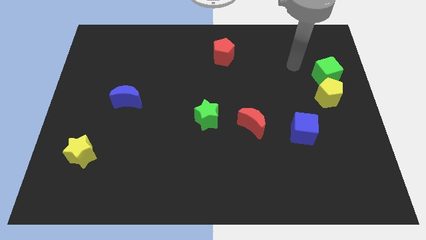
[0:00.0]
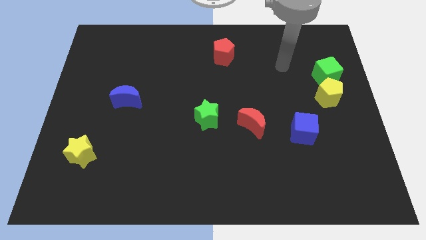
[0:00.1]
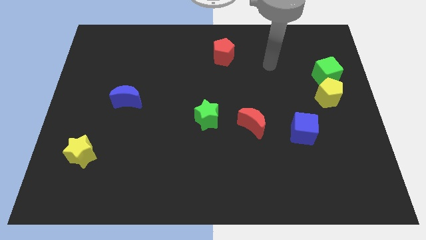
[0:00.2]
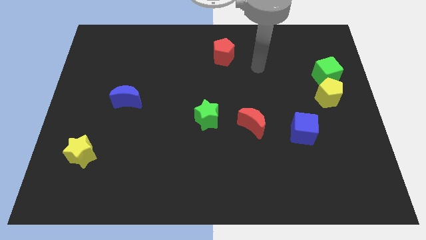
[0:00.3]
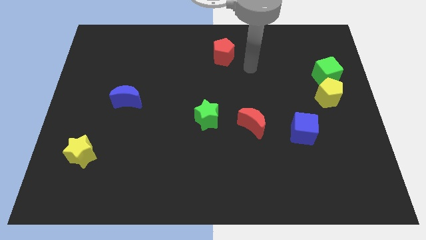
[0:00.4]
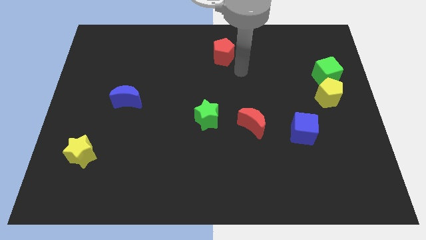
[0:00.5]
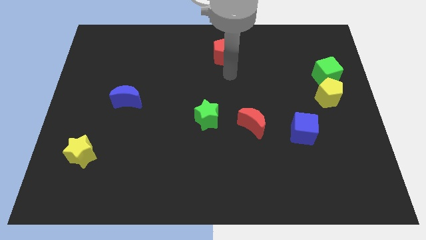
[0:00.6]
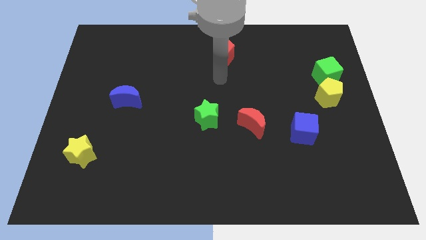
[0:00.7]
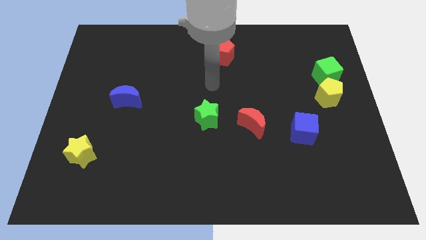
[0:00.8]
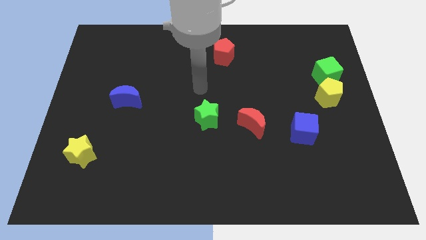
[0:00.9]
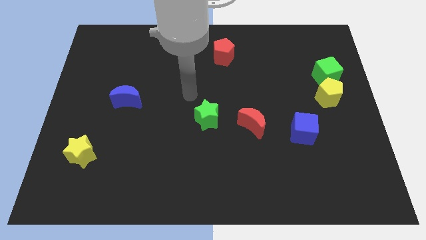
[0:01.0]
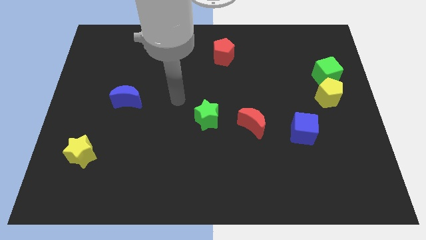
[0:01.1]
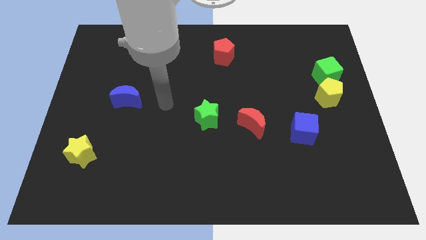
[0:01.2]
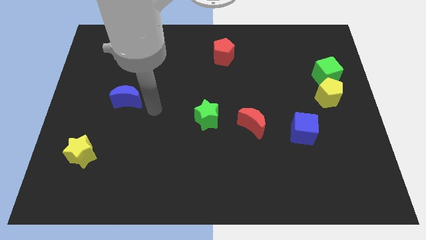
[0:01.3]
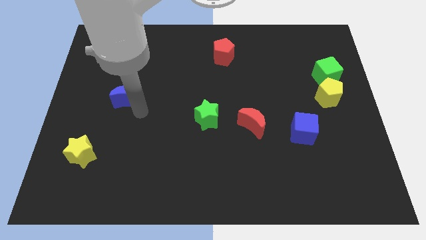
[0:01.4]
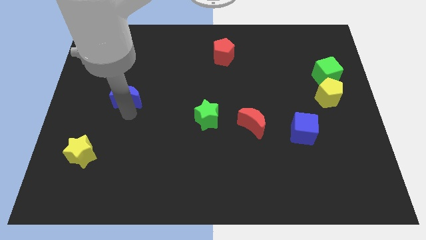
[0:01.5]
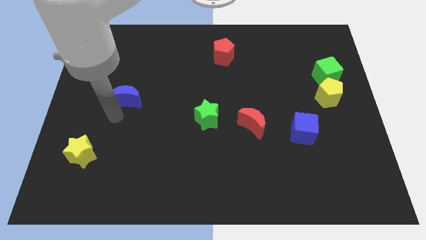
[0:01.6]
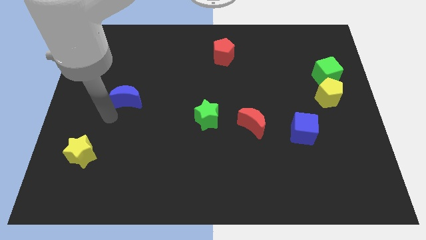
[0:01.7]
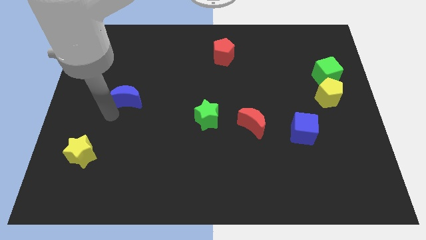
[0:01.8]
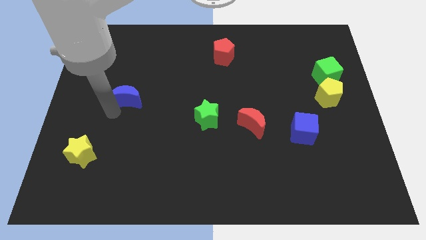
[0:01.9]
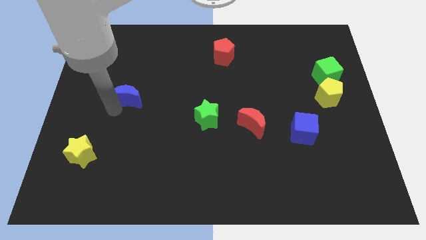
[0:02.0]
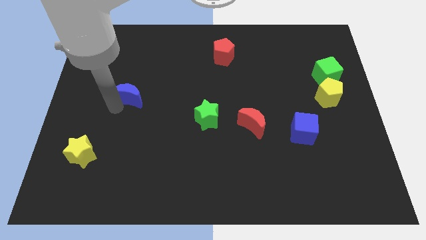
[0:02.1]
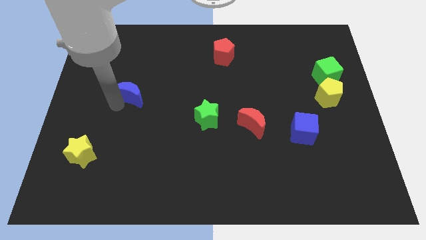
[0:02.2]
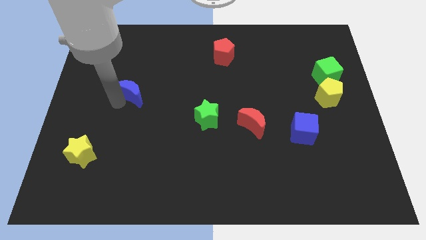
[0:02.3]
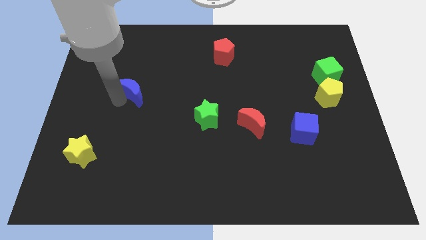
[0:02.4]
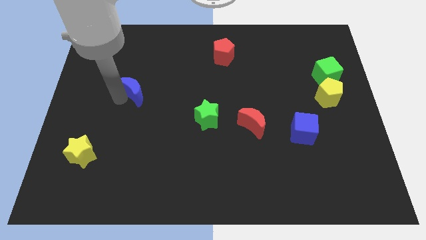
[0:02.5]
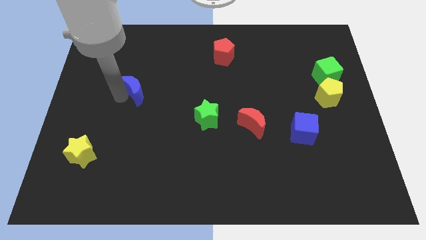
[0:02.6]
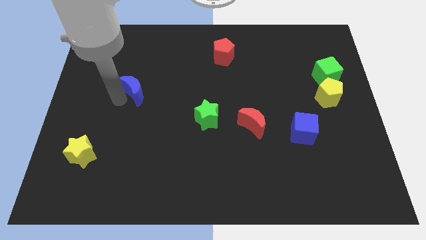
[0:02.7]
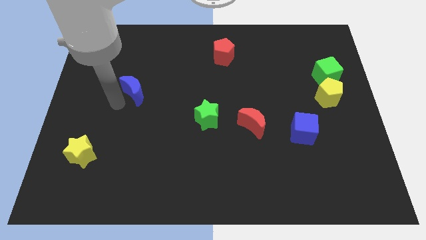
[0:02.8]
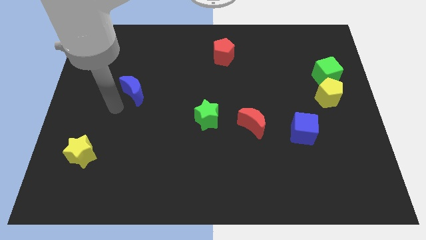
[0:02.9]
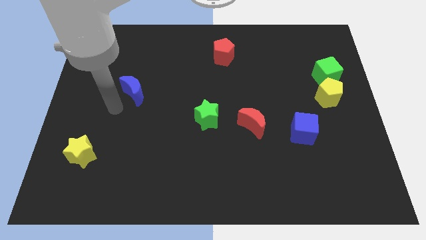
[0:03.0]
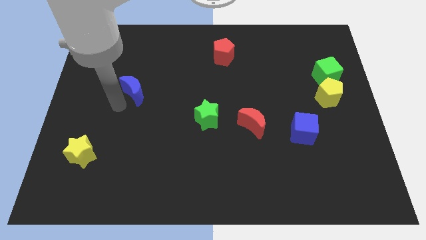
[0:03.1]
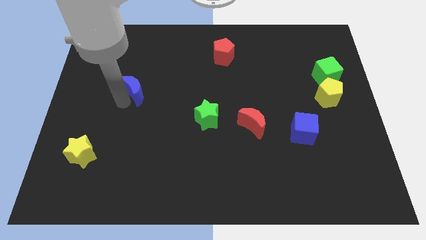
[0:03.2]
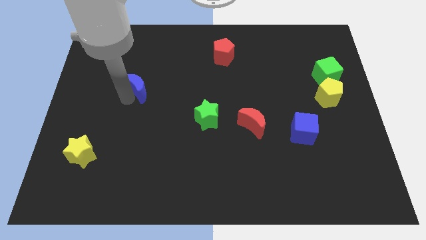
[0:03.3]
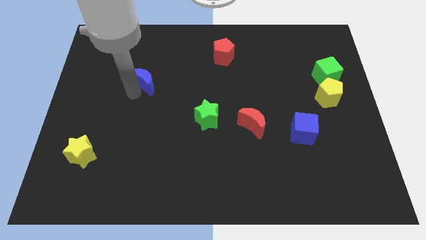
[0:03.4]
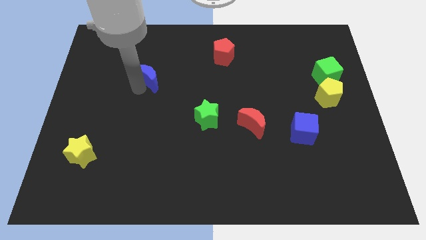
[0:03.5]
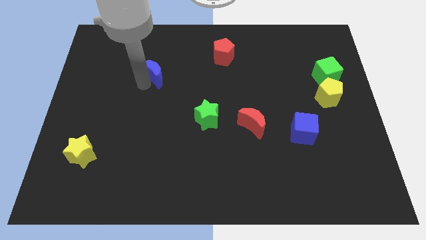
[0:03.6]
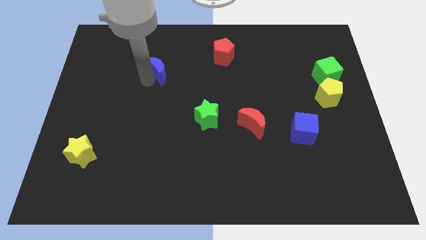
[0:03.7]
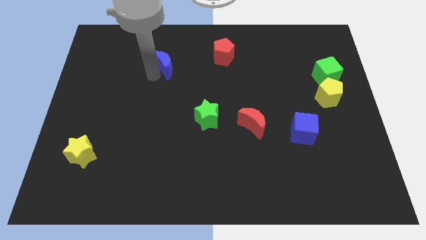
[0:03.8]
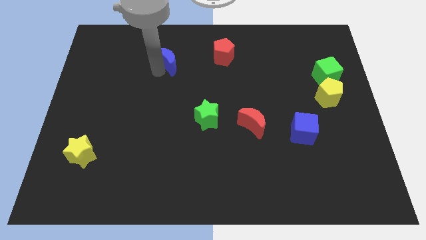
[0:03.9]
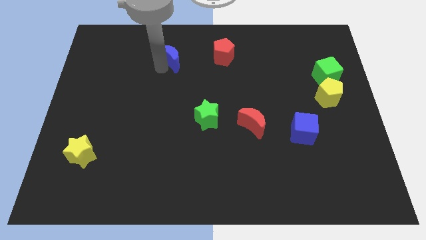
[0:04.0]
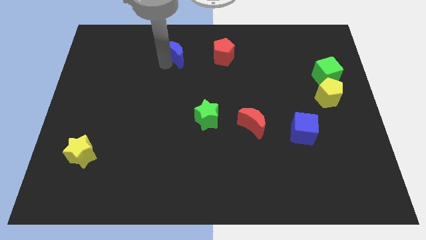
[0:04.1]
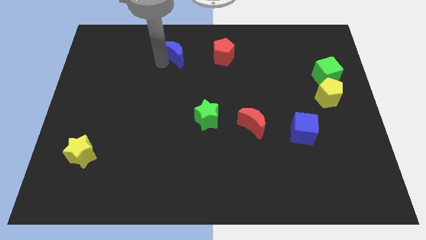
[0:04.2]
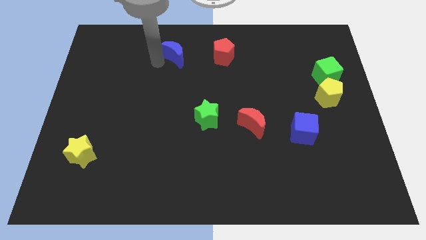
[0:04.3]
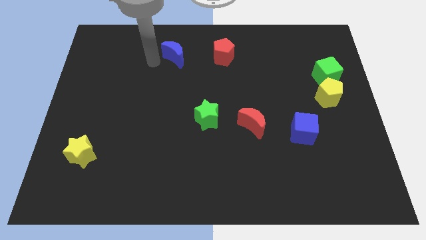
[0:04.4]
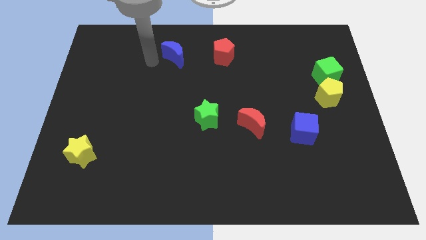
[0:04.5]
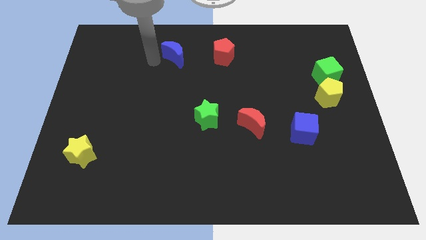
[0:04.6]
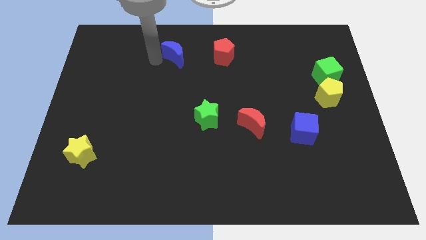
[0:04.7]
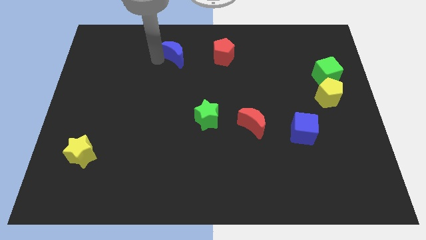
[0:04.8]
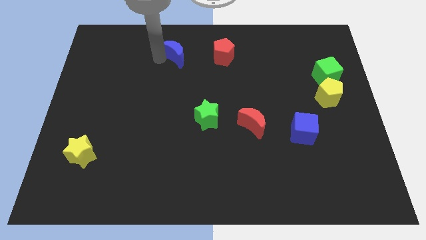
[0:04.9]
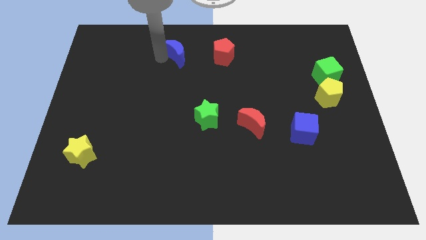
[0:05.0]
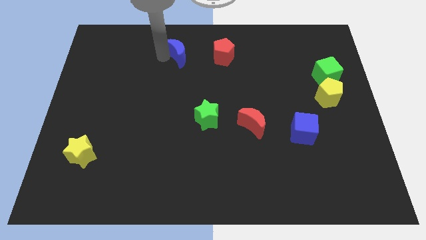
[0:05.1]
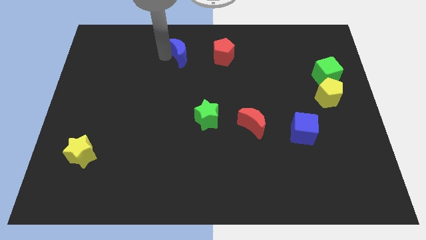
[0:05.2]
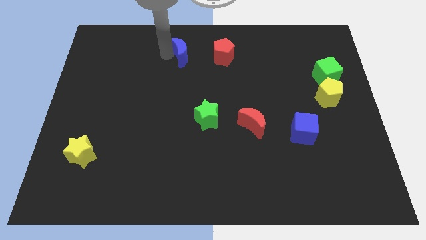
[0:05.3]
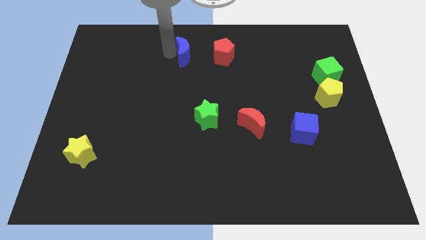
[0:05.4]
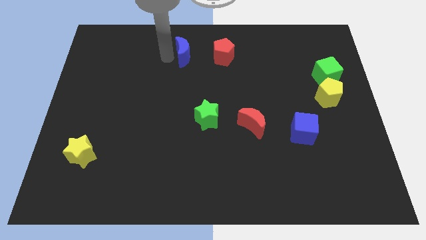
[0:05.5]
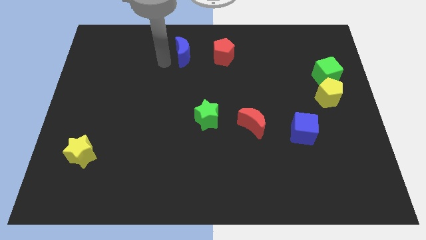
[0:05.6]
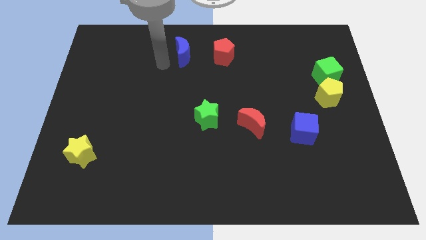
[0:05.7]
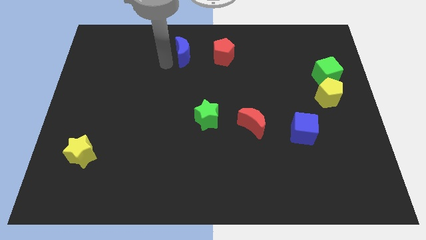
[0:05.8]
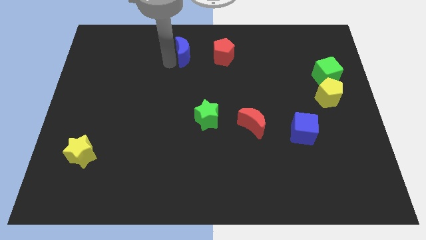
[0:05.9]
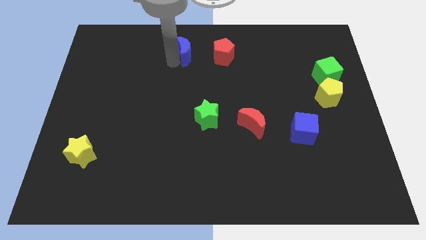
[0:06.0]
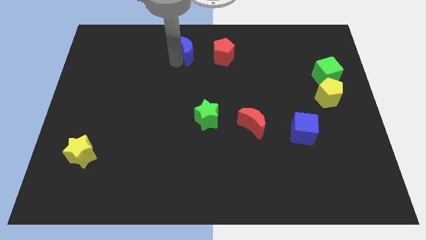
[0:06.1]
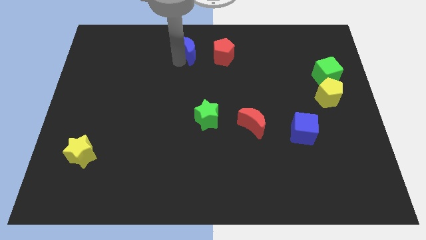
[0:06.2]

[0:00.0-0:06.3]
slide the blue moon to the top side
